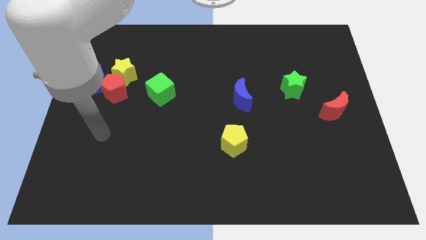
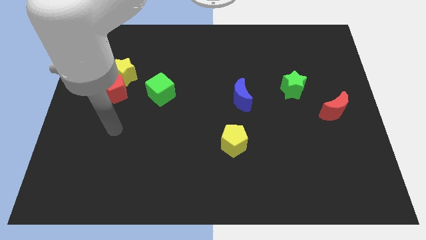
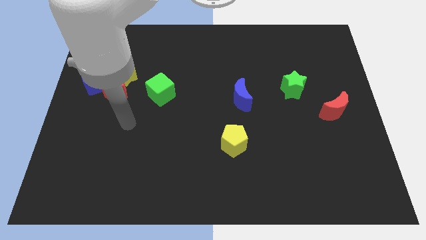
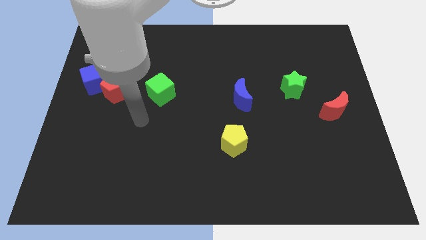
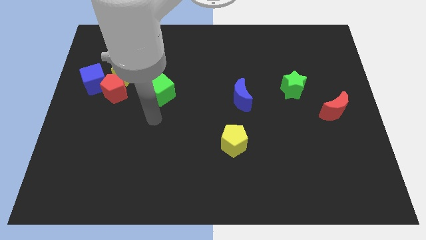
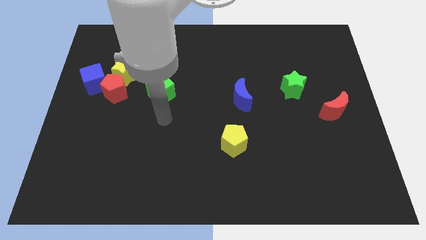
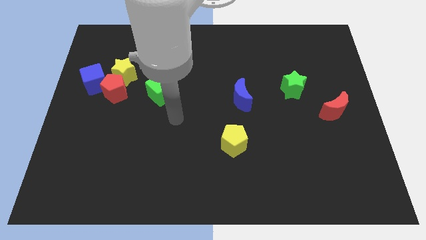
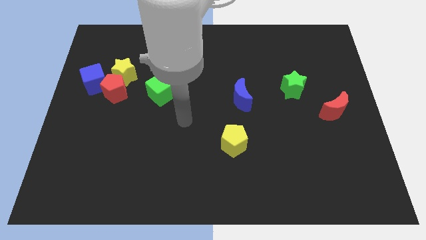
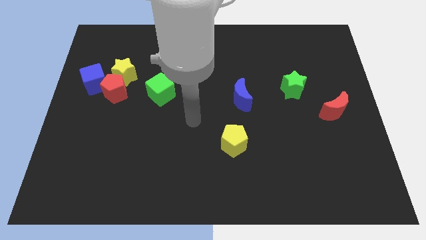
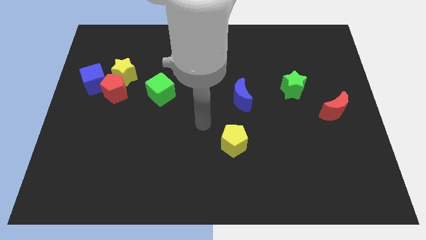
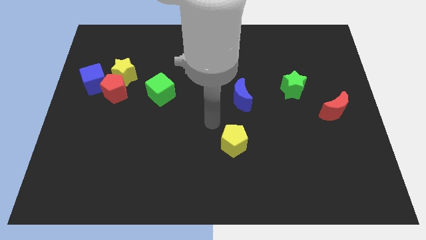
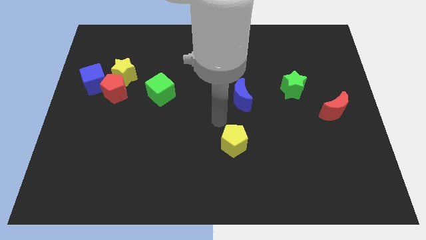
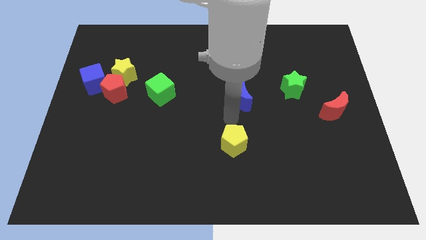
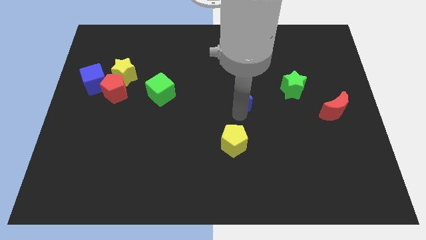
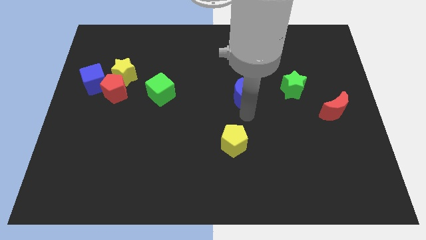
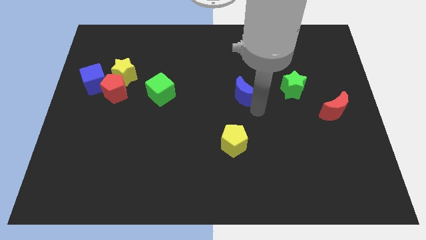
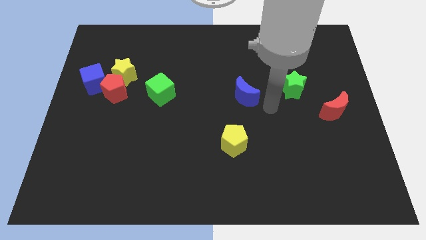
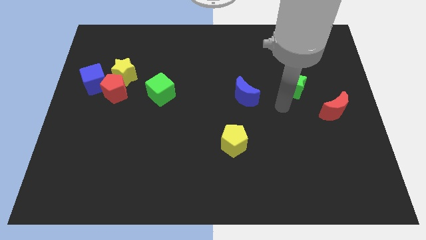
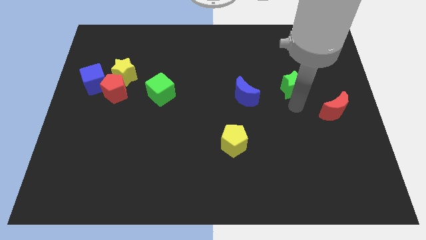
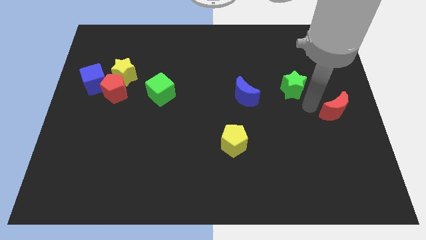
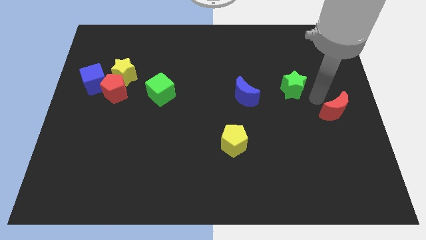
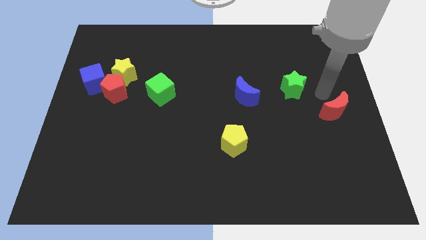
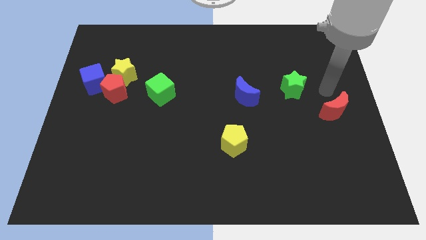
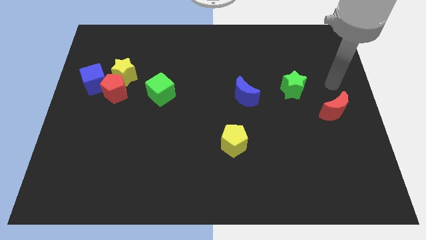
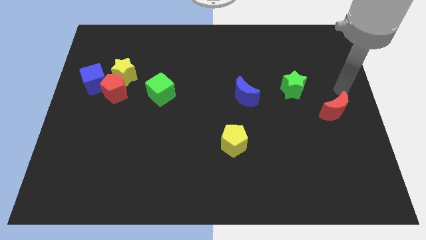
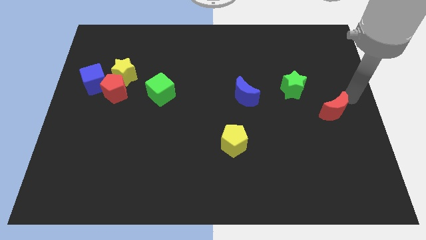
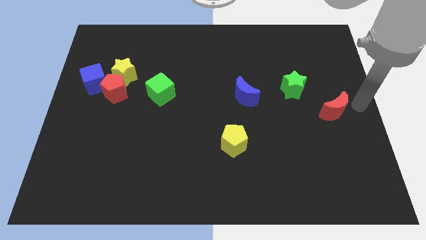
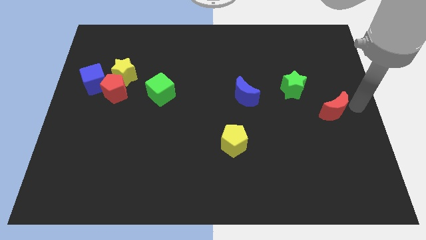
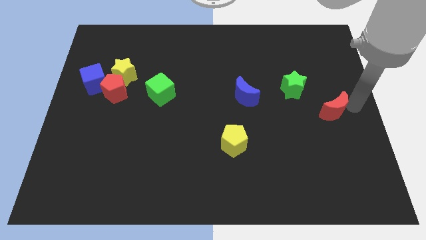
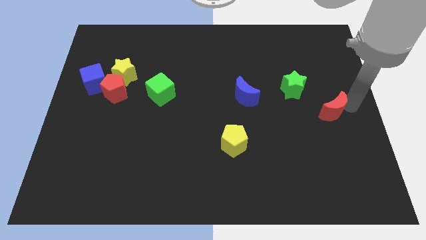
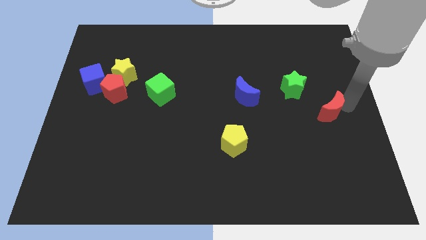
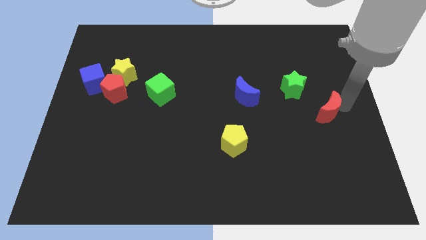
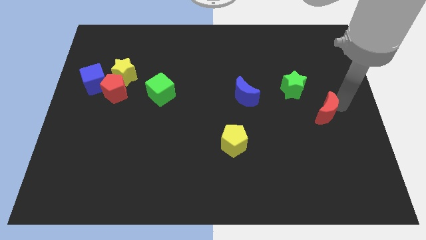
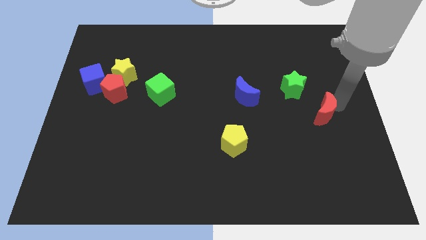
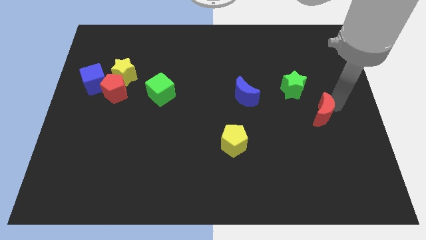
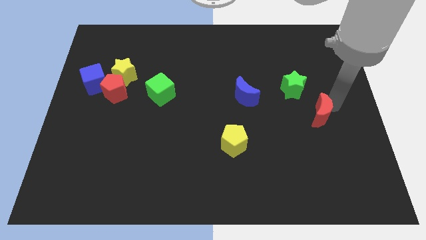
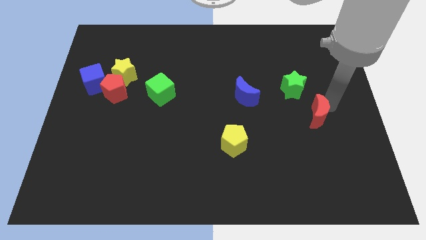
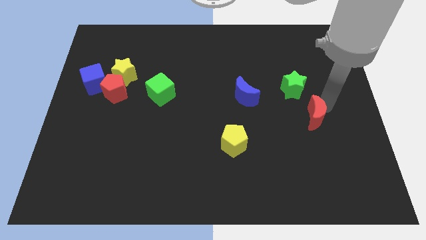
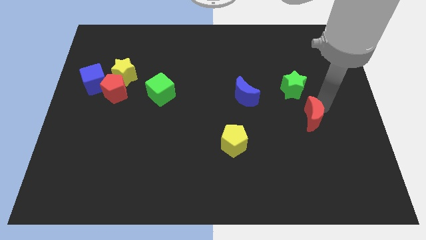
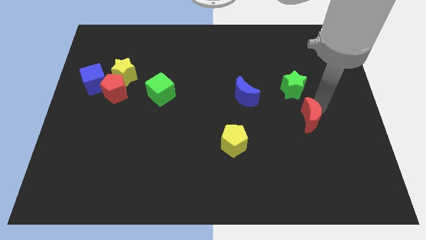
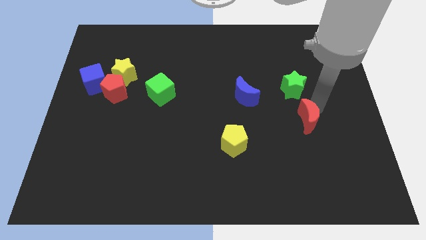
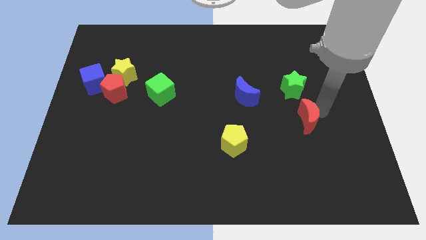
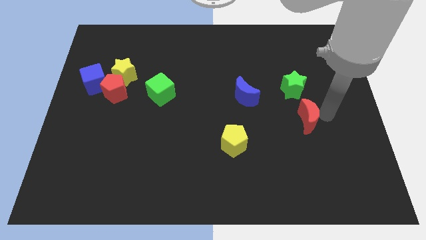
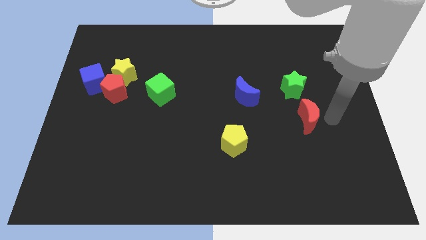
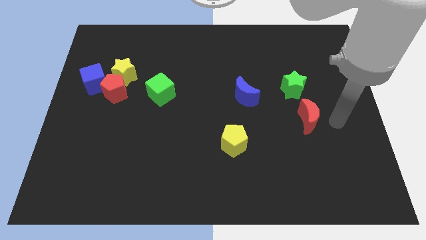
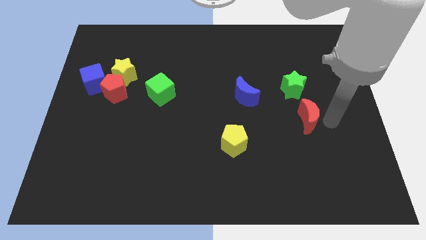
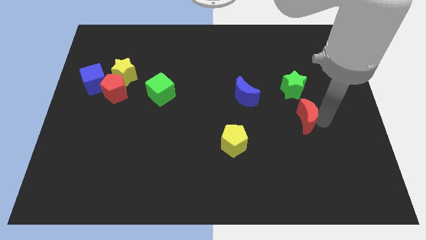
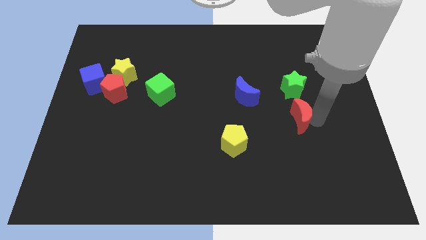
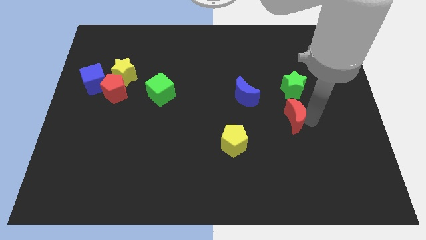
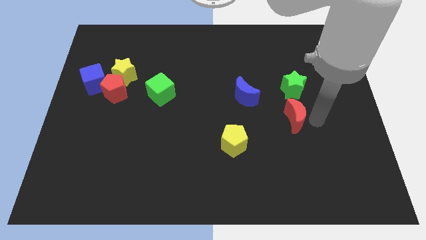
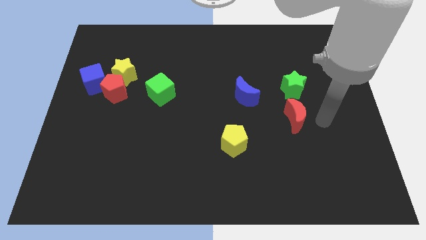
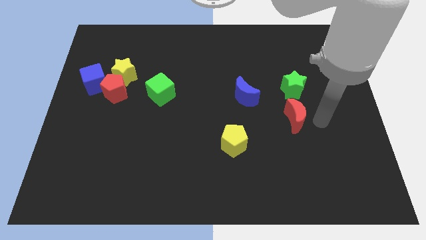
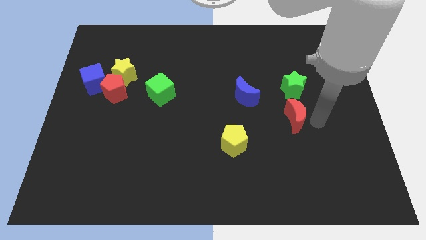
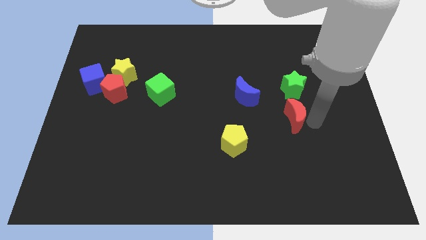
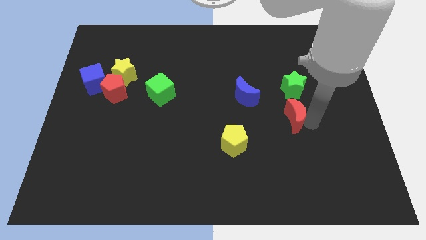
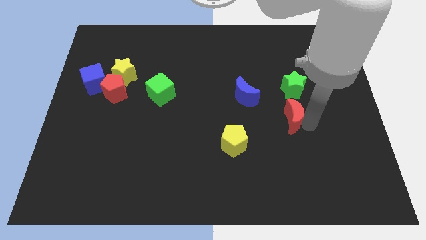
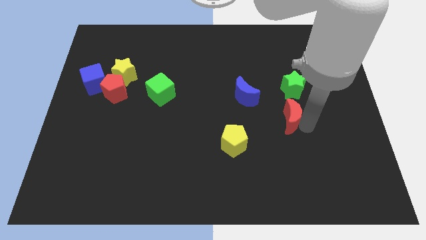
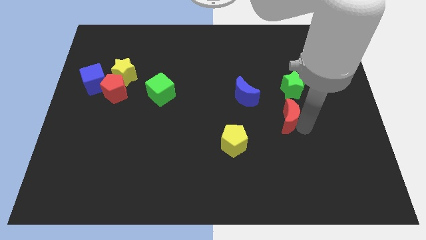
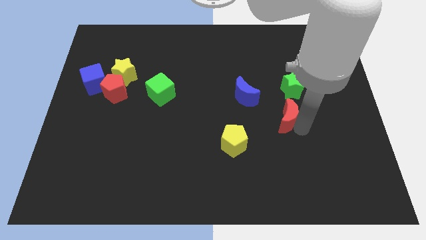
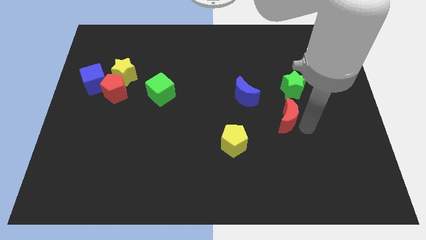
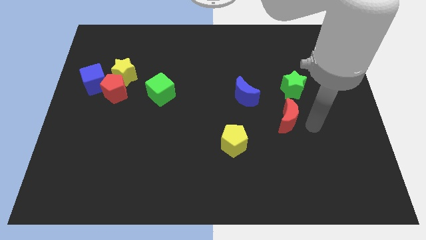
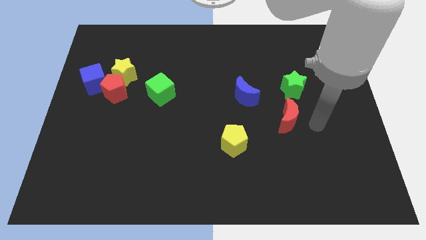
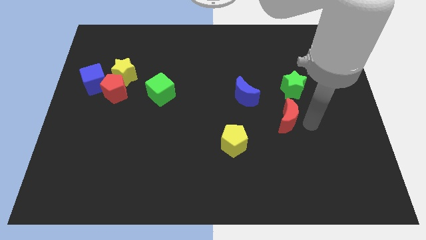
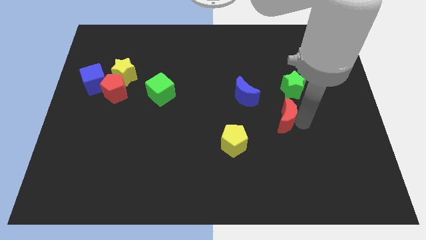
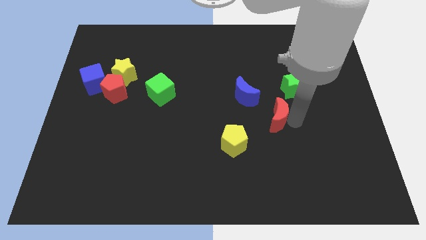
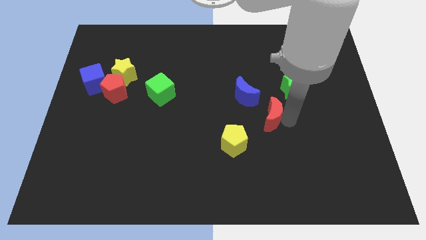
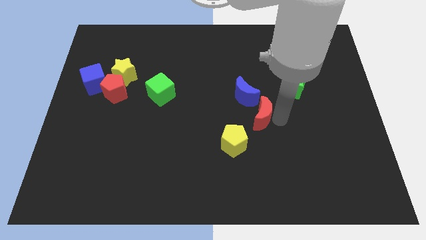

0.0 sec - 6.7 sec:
push the red moon to the middle

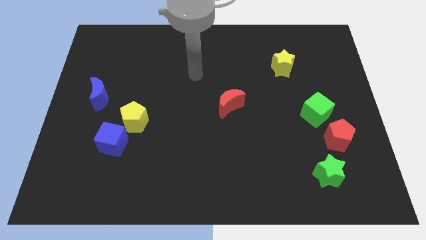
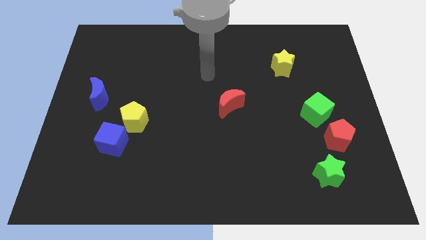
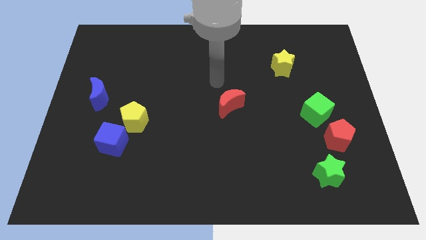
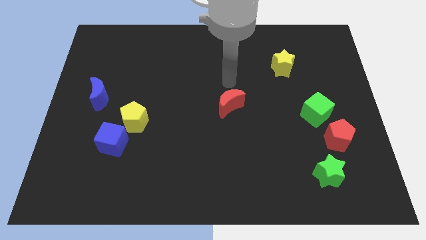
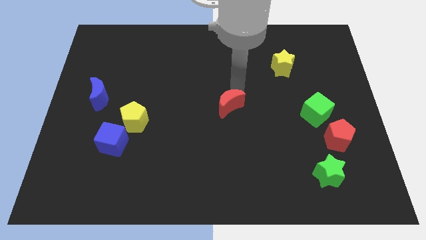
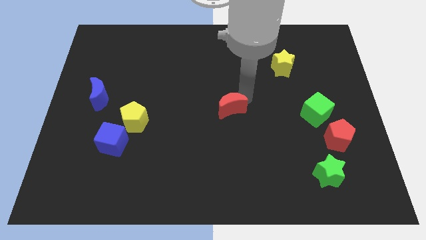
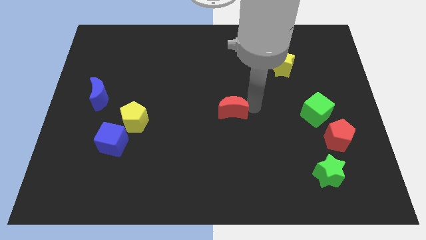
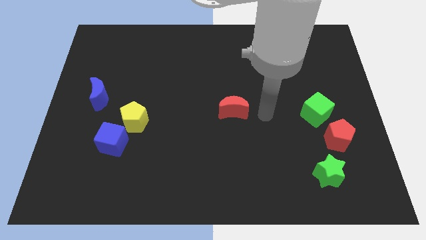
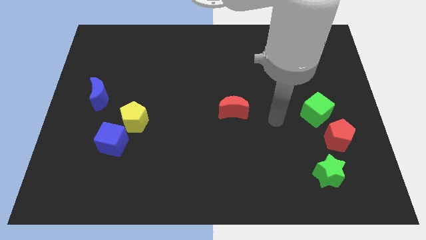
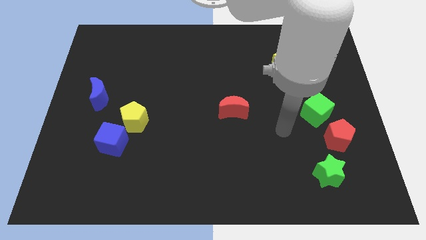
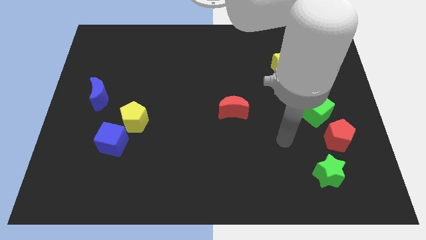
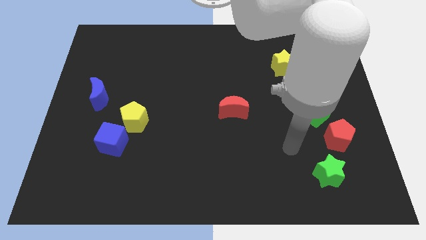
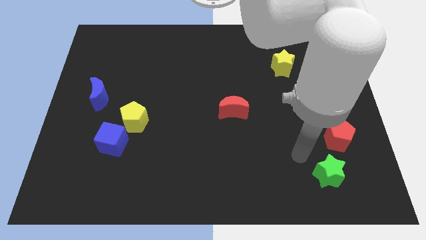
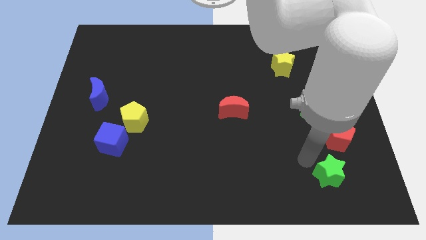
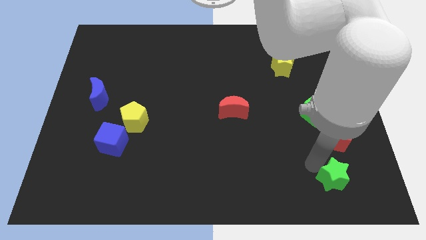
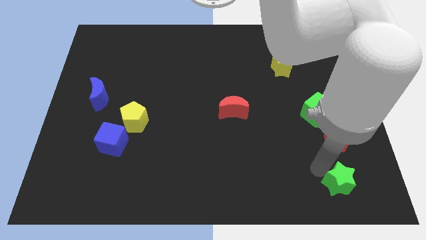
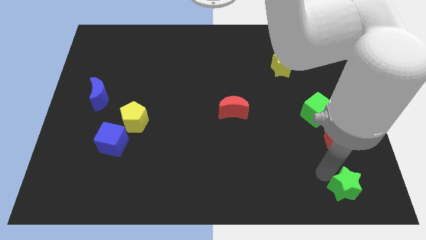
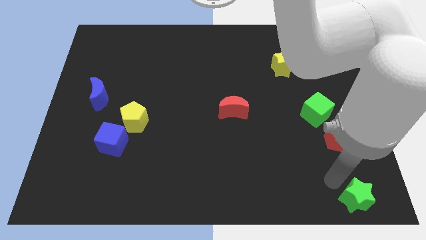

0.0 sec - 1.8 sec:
slide the green star to the bottom right
